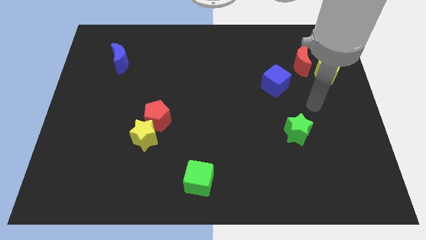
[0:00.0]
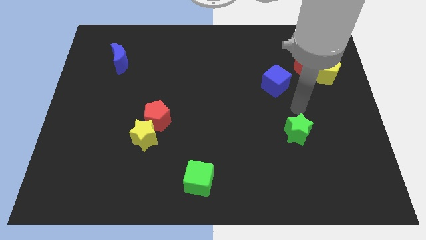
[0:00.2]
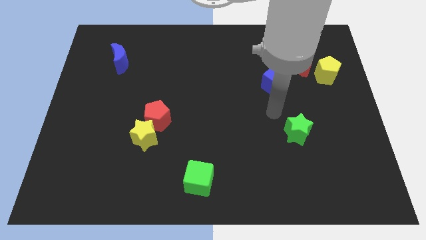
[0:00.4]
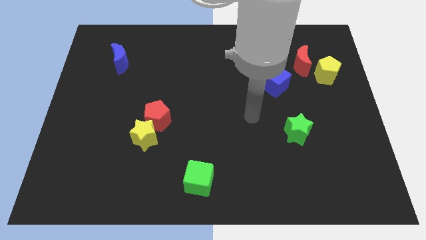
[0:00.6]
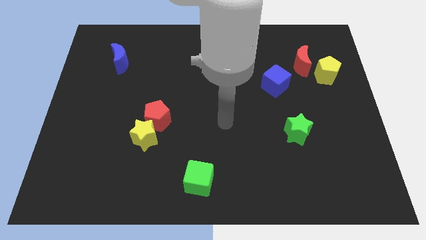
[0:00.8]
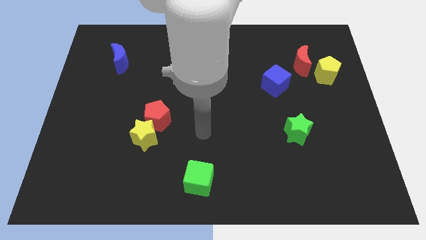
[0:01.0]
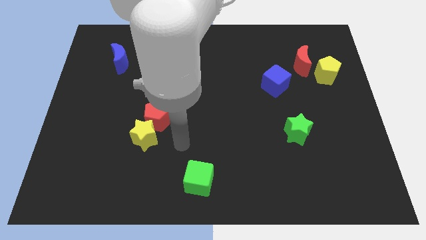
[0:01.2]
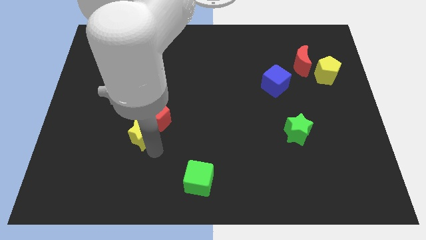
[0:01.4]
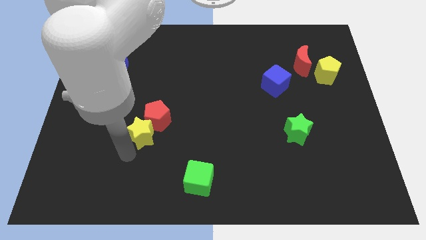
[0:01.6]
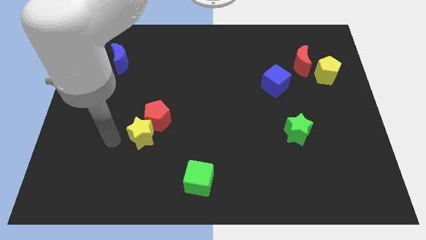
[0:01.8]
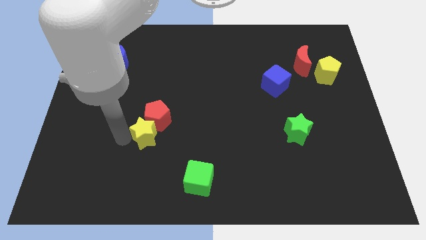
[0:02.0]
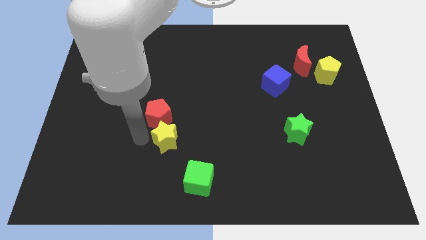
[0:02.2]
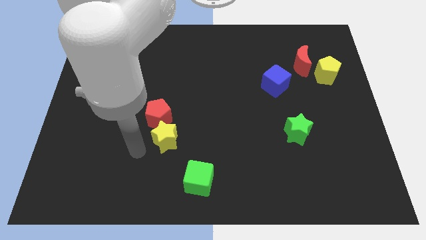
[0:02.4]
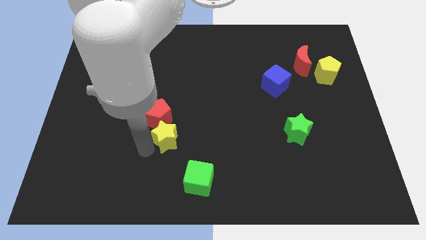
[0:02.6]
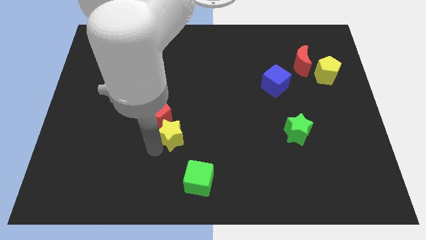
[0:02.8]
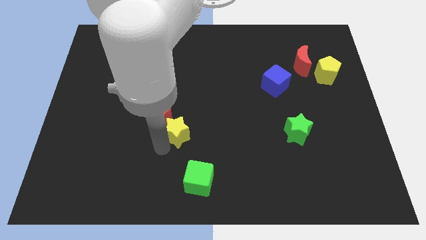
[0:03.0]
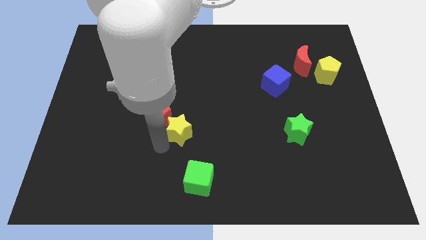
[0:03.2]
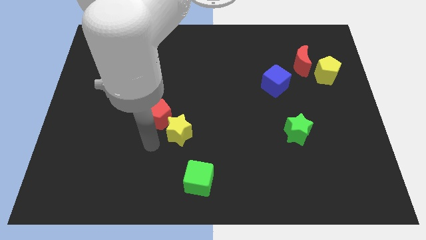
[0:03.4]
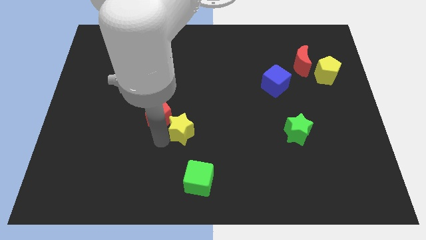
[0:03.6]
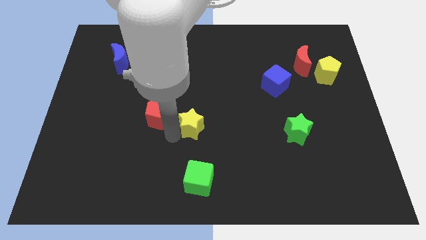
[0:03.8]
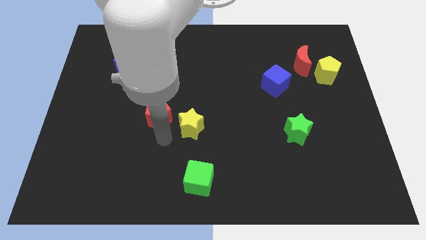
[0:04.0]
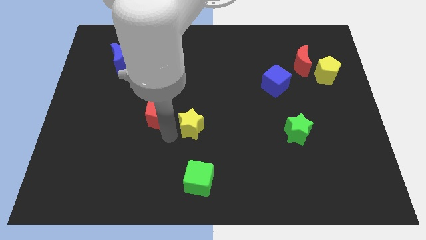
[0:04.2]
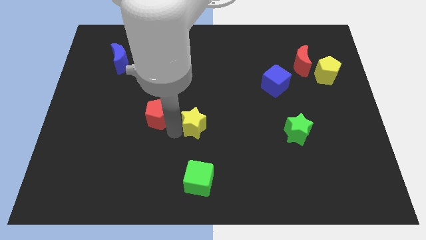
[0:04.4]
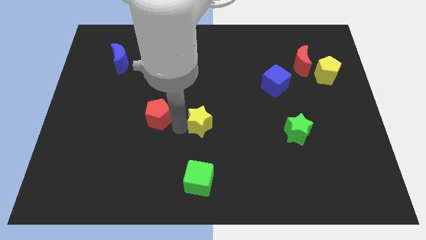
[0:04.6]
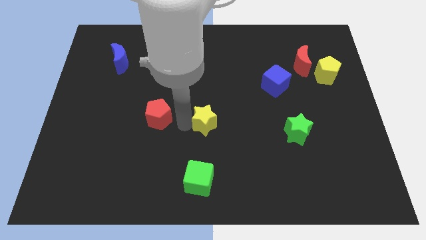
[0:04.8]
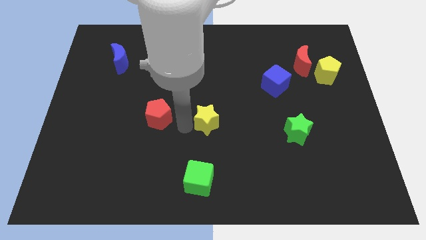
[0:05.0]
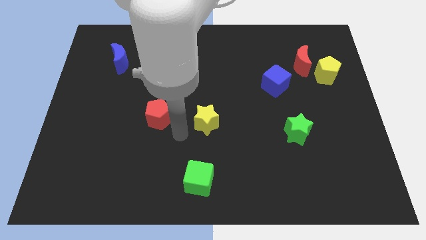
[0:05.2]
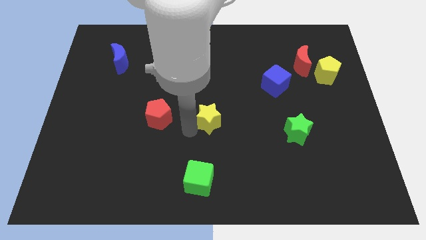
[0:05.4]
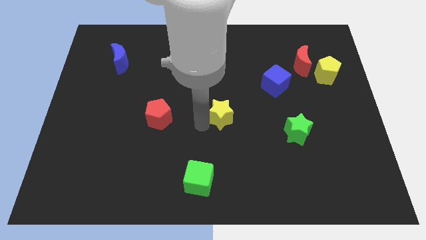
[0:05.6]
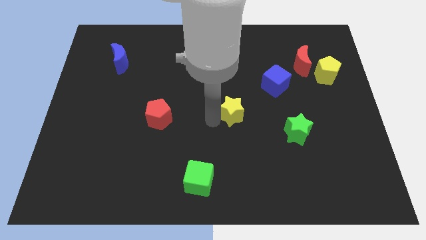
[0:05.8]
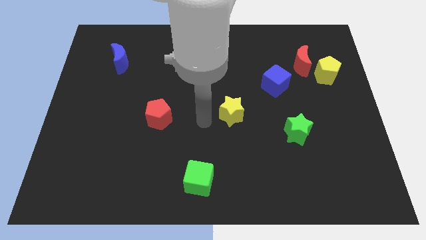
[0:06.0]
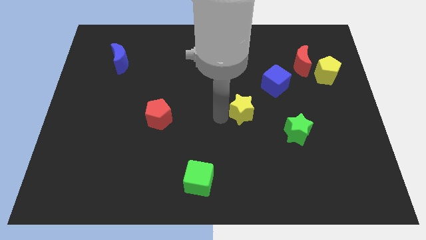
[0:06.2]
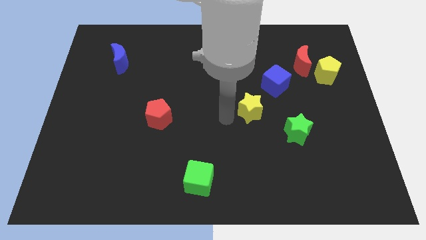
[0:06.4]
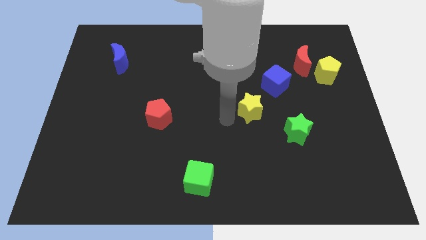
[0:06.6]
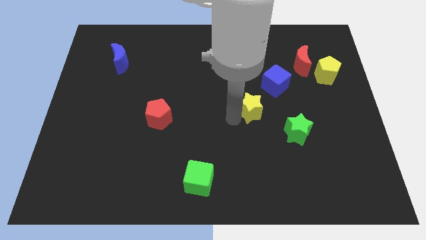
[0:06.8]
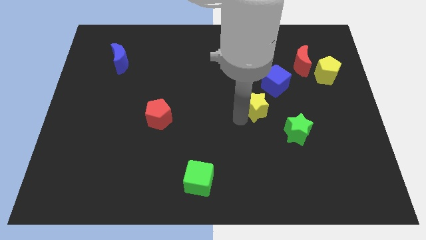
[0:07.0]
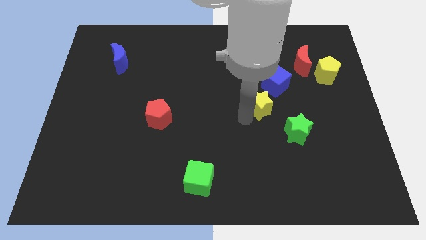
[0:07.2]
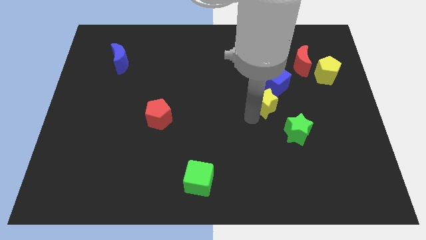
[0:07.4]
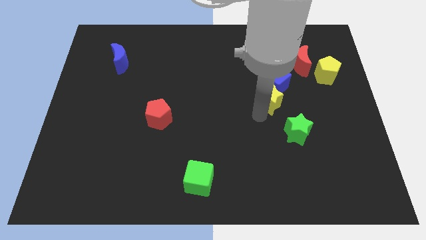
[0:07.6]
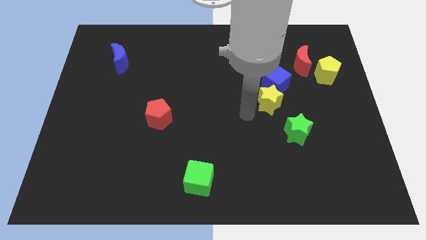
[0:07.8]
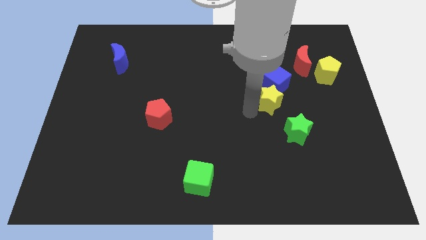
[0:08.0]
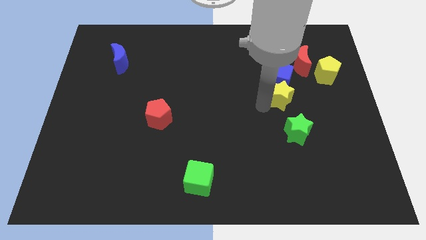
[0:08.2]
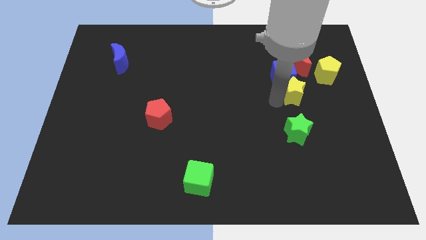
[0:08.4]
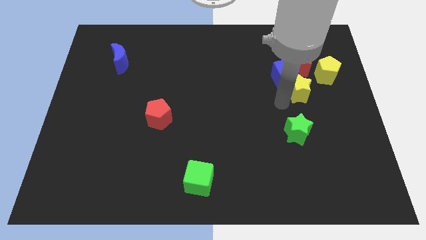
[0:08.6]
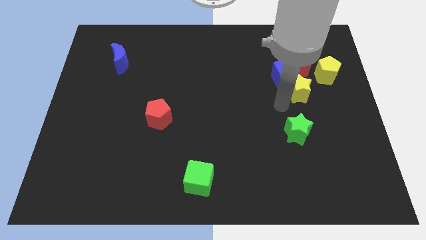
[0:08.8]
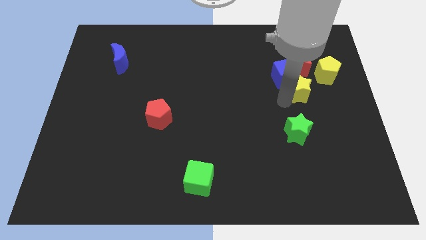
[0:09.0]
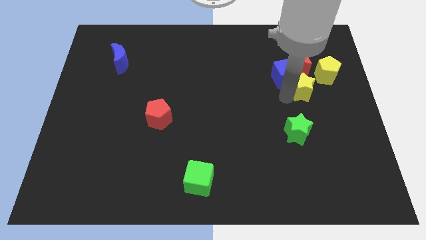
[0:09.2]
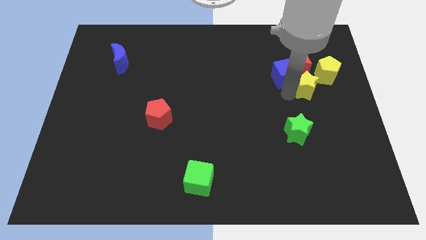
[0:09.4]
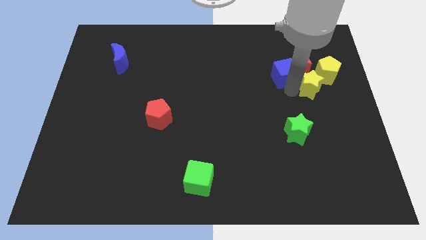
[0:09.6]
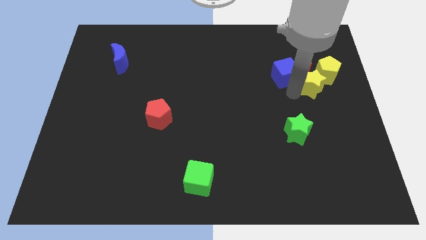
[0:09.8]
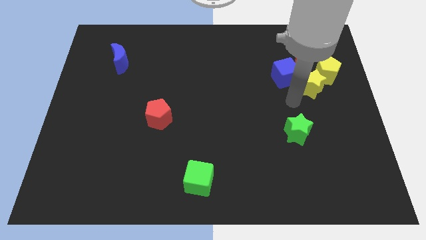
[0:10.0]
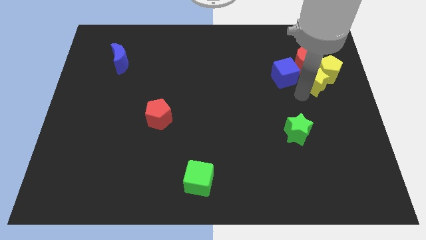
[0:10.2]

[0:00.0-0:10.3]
slide the yellow star towards the yellow pentagon
